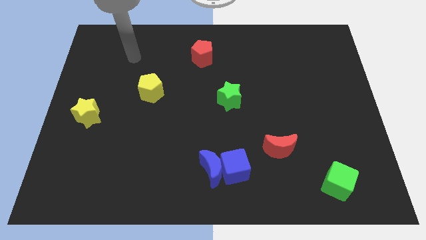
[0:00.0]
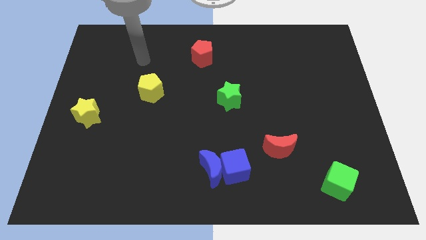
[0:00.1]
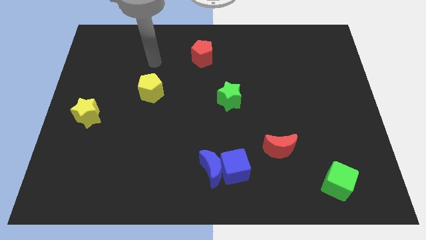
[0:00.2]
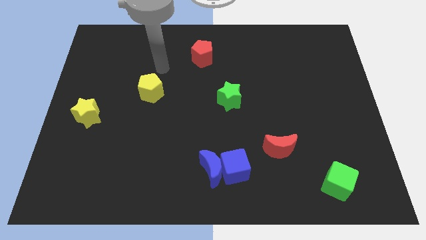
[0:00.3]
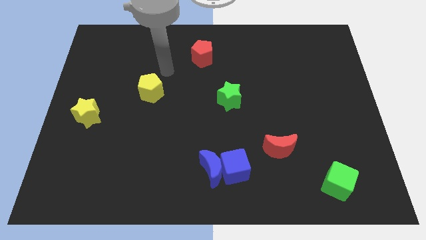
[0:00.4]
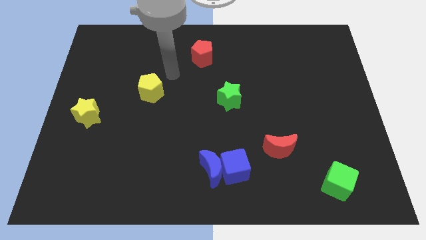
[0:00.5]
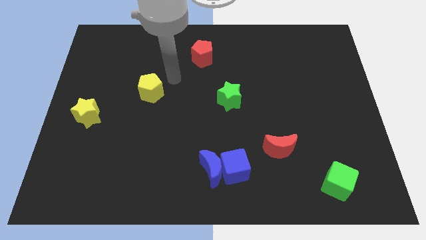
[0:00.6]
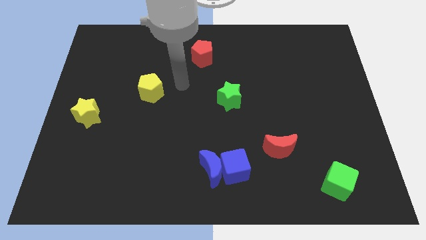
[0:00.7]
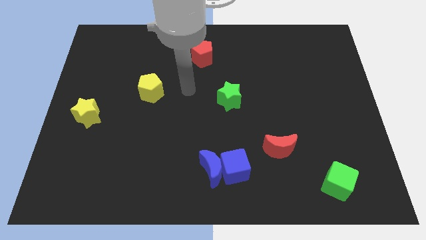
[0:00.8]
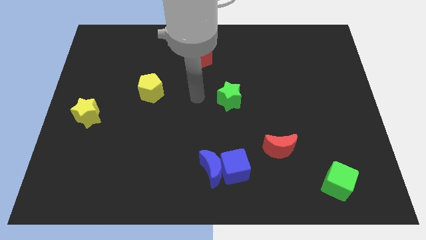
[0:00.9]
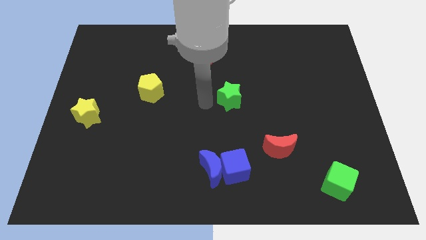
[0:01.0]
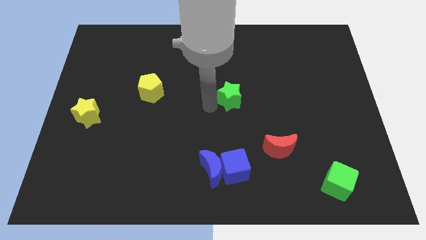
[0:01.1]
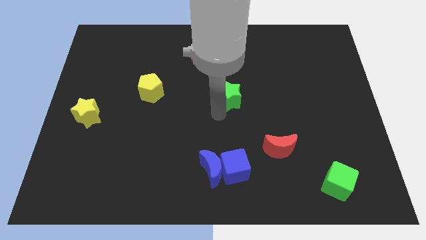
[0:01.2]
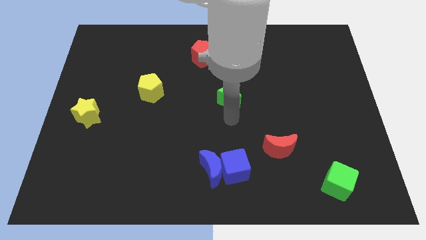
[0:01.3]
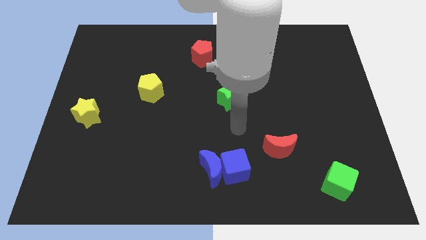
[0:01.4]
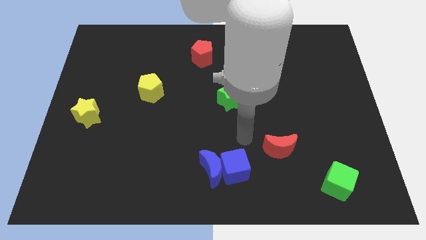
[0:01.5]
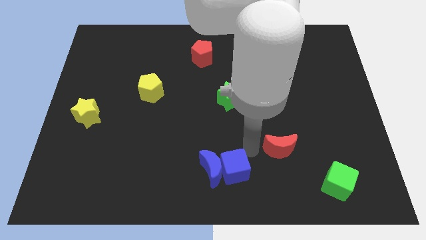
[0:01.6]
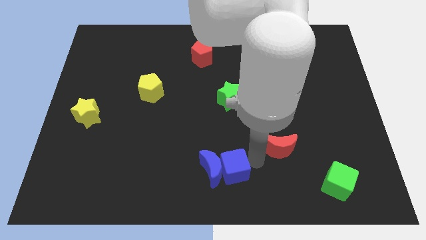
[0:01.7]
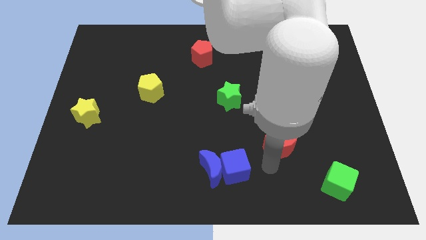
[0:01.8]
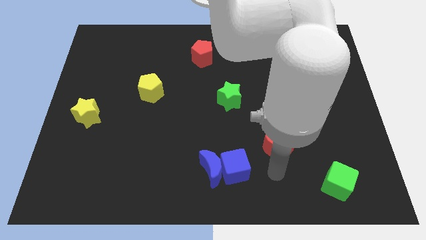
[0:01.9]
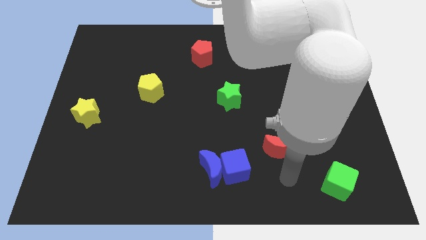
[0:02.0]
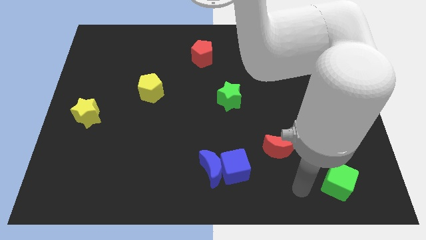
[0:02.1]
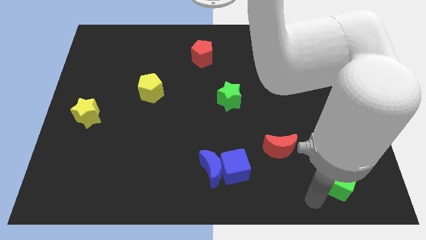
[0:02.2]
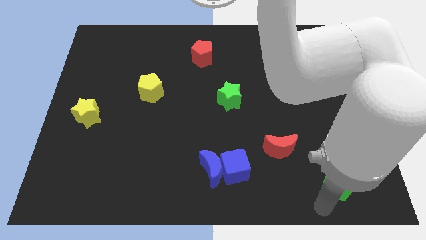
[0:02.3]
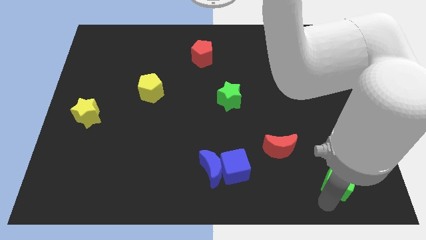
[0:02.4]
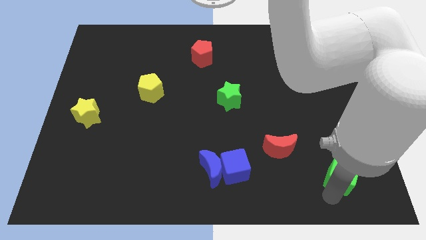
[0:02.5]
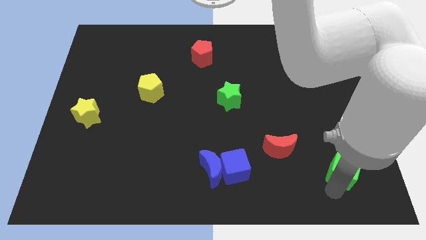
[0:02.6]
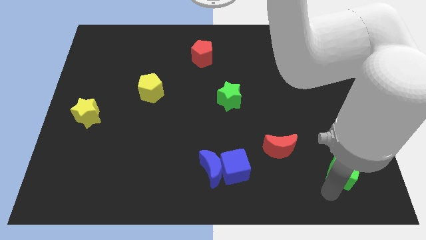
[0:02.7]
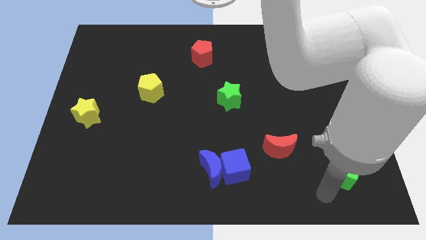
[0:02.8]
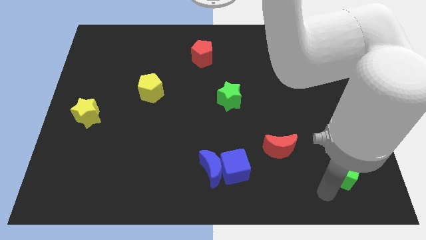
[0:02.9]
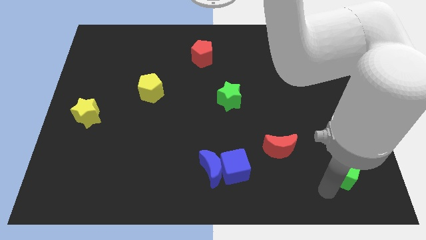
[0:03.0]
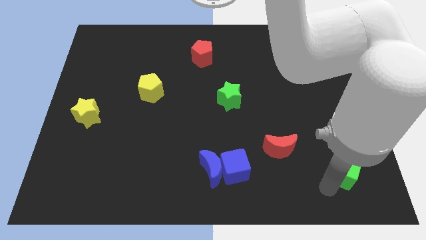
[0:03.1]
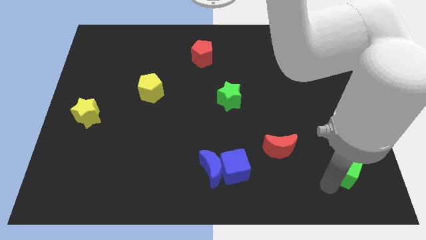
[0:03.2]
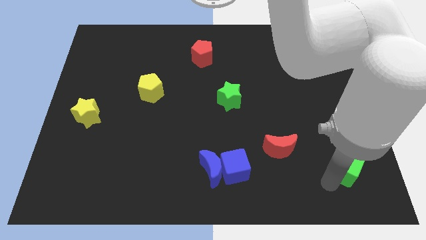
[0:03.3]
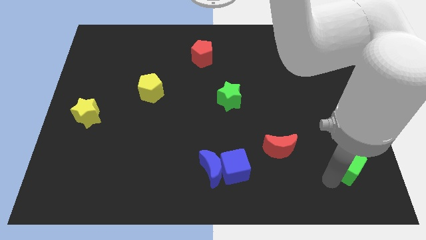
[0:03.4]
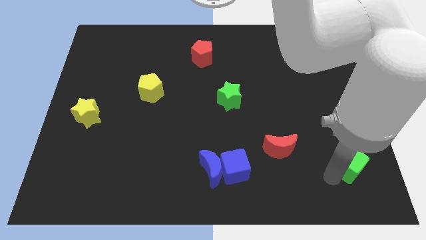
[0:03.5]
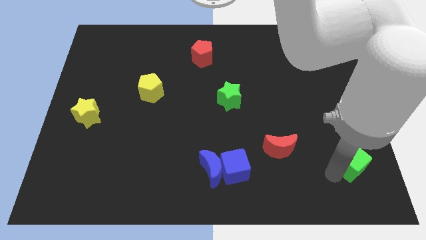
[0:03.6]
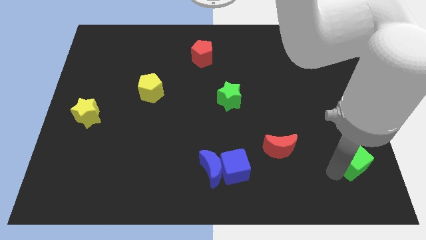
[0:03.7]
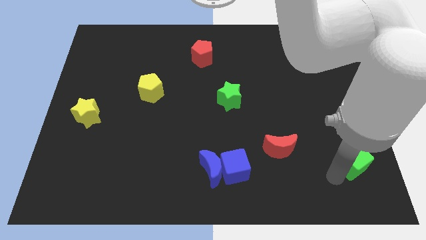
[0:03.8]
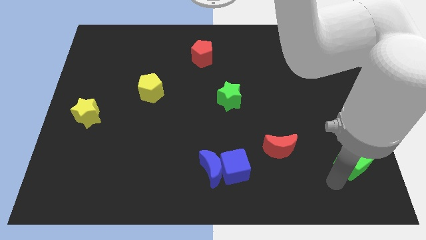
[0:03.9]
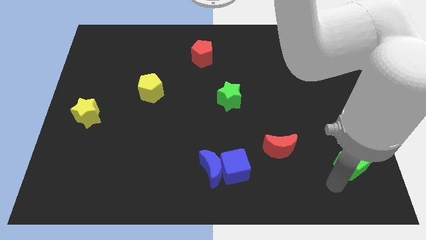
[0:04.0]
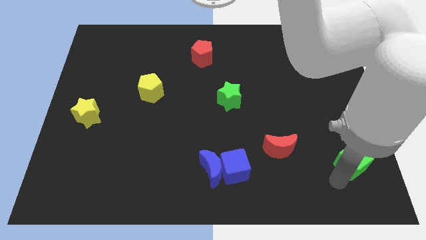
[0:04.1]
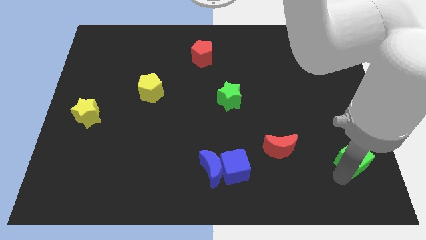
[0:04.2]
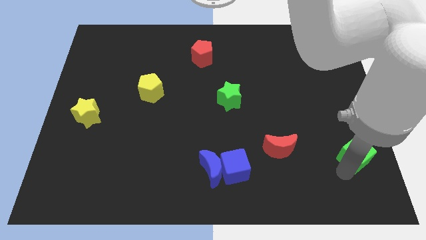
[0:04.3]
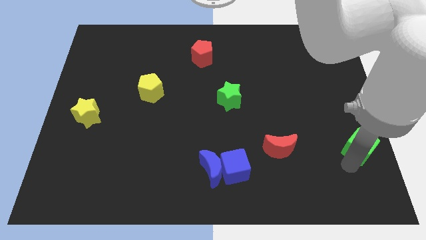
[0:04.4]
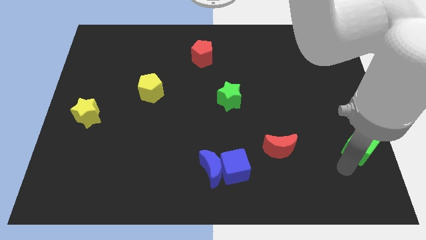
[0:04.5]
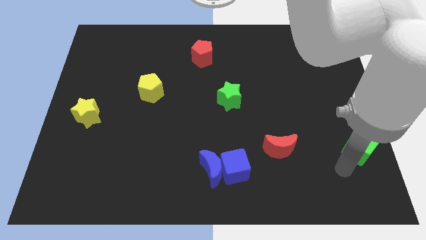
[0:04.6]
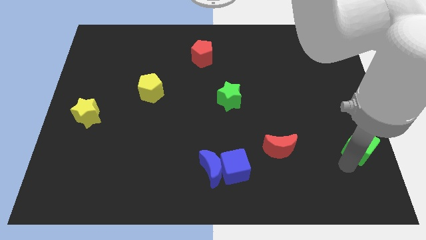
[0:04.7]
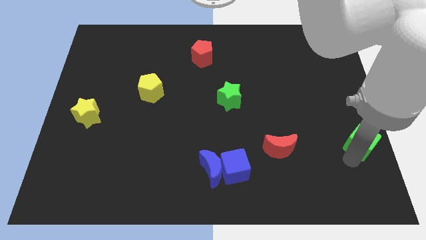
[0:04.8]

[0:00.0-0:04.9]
push the green cube to the right side

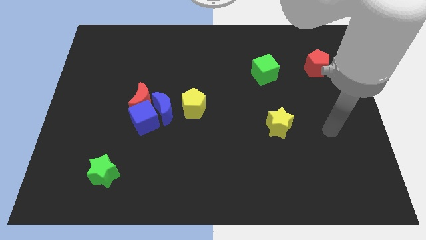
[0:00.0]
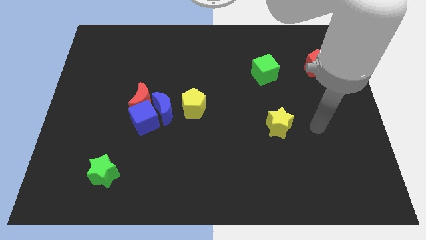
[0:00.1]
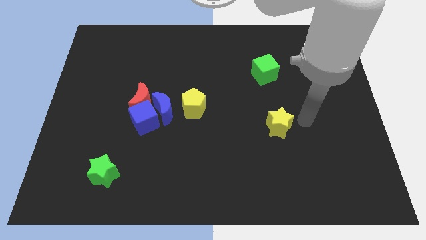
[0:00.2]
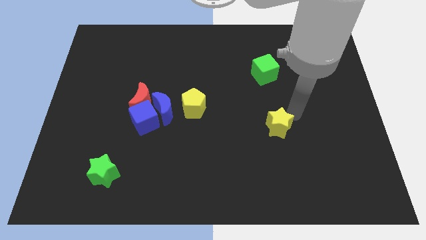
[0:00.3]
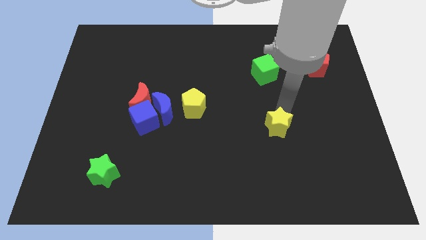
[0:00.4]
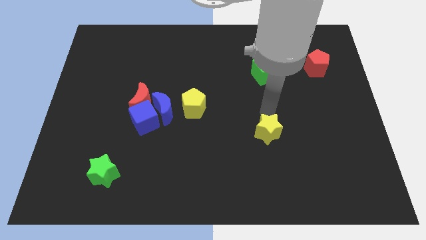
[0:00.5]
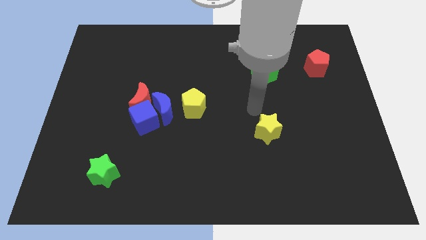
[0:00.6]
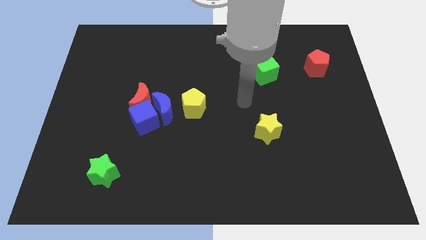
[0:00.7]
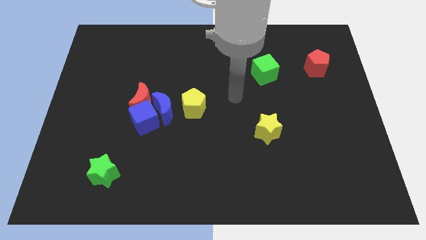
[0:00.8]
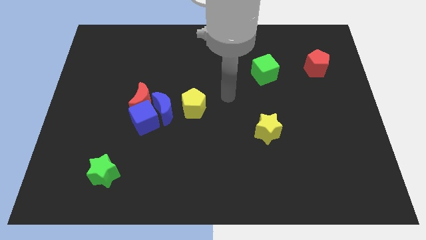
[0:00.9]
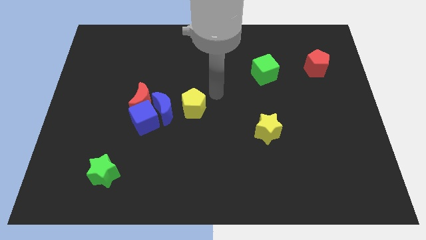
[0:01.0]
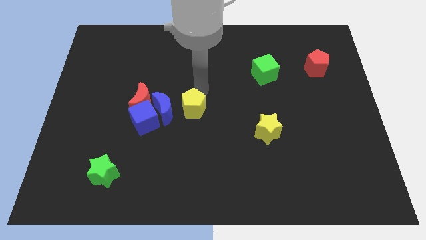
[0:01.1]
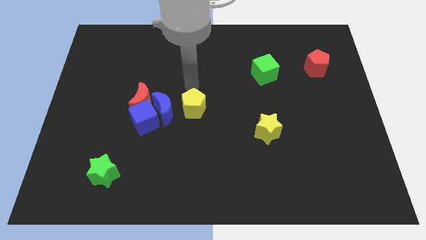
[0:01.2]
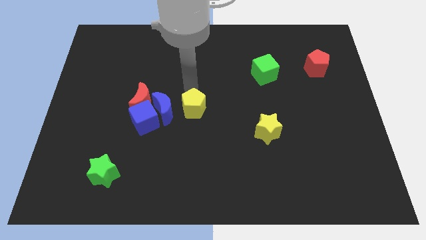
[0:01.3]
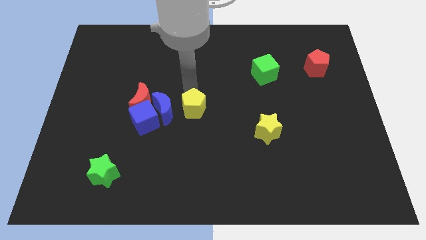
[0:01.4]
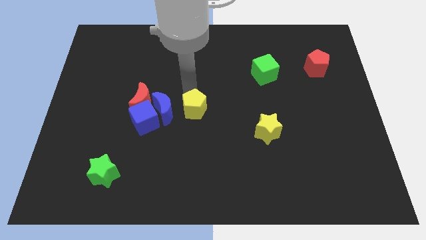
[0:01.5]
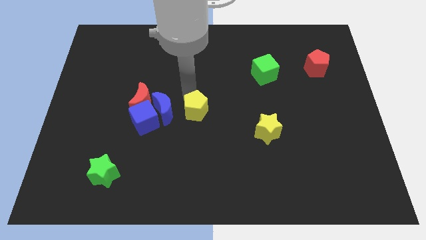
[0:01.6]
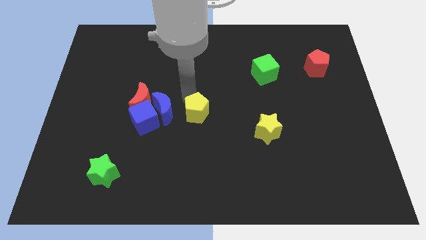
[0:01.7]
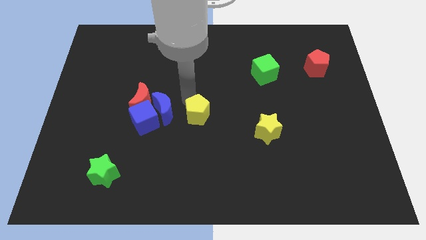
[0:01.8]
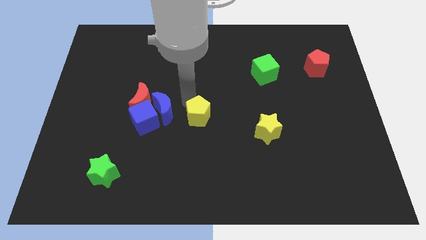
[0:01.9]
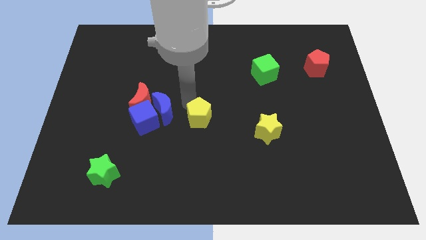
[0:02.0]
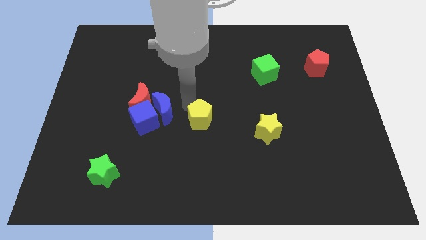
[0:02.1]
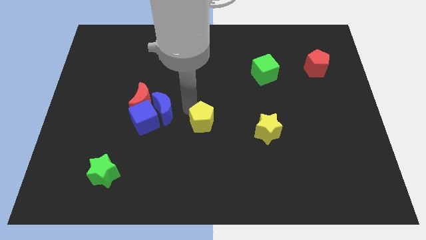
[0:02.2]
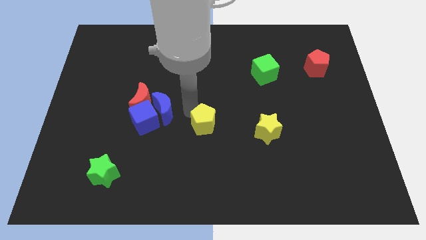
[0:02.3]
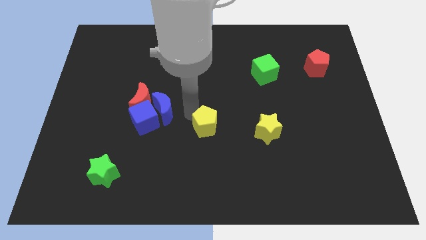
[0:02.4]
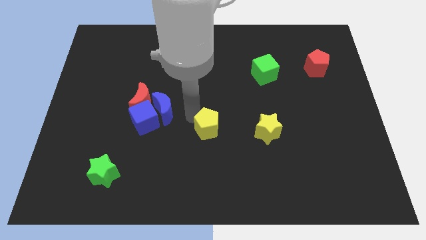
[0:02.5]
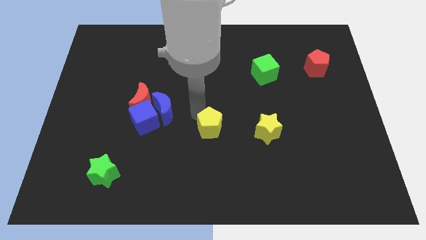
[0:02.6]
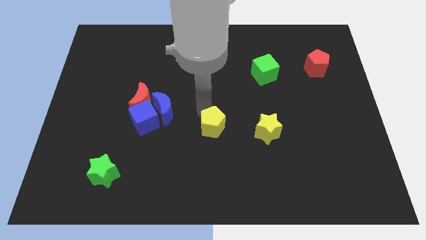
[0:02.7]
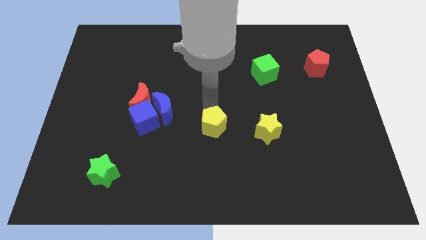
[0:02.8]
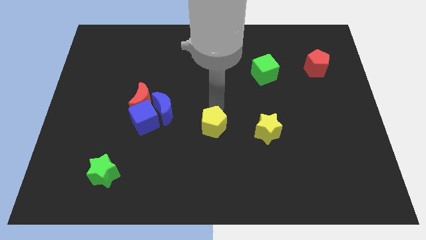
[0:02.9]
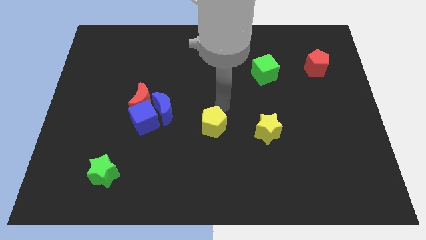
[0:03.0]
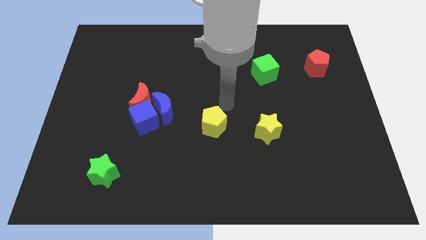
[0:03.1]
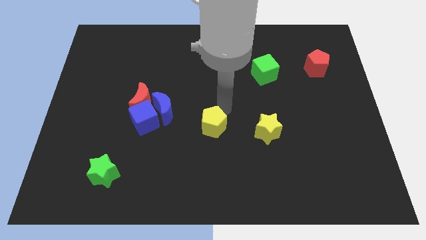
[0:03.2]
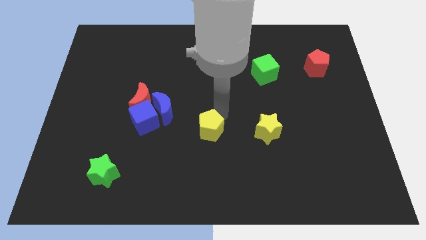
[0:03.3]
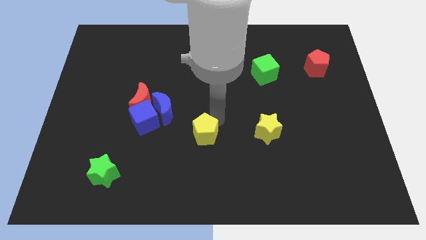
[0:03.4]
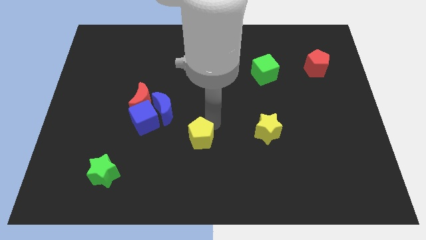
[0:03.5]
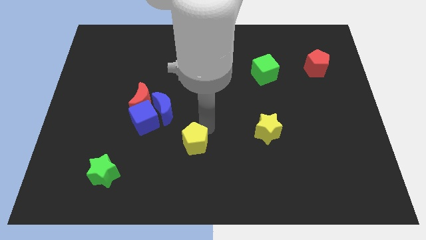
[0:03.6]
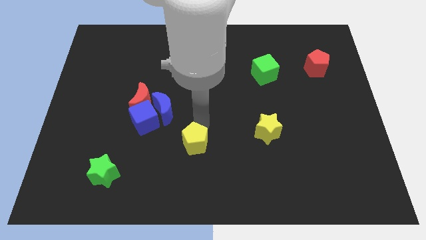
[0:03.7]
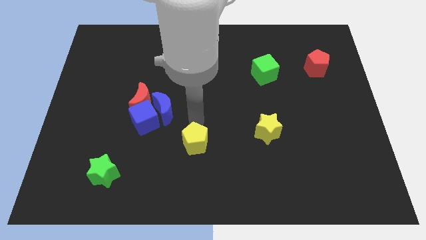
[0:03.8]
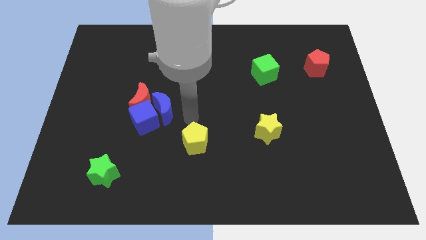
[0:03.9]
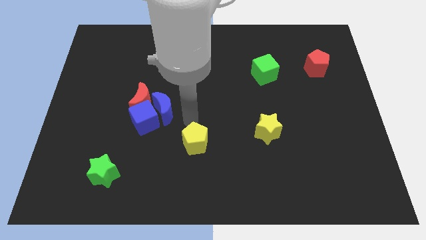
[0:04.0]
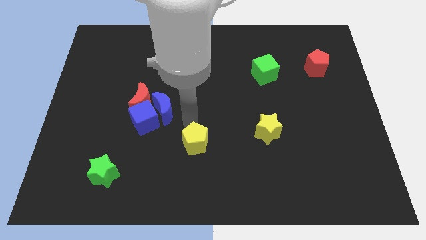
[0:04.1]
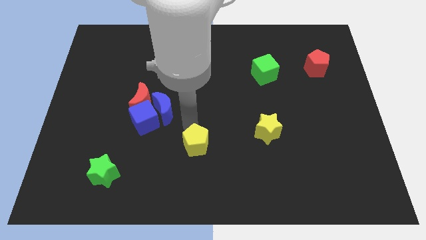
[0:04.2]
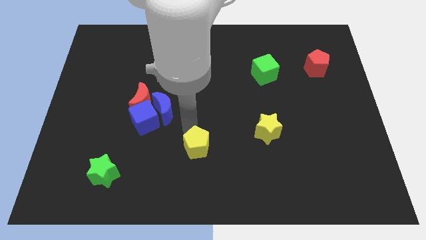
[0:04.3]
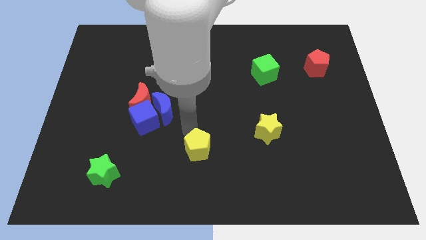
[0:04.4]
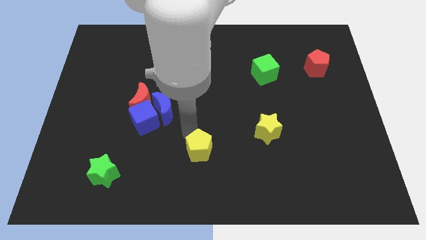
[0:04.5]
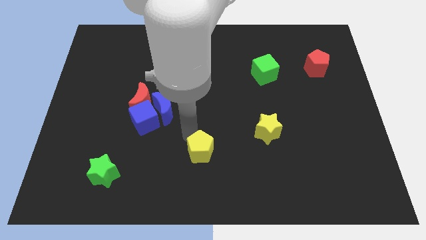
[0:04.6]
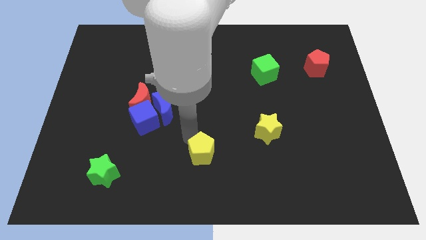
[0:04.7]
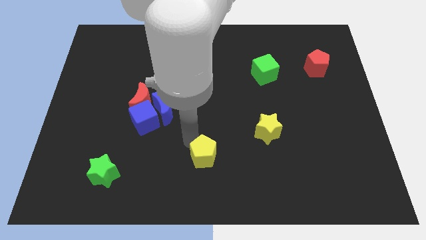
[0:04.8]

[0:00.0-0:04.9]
move the yellow pentagon to the bottom
